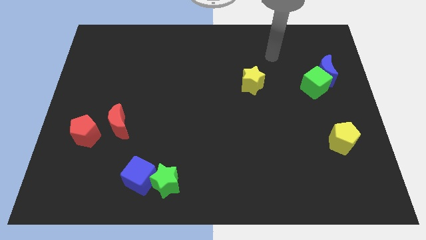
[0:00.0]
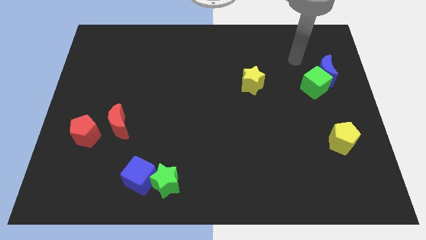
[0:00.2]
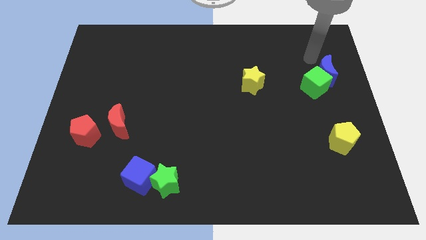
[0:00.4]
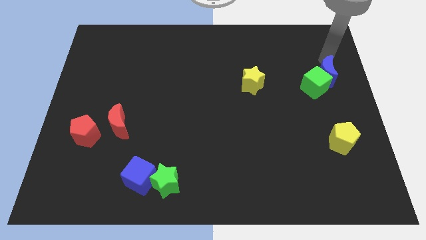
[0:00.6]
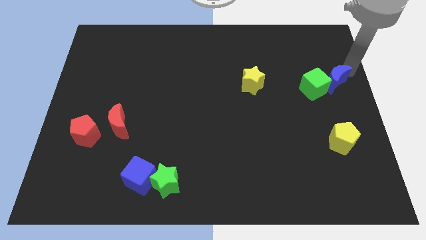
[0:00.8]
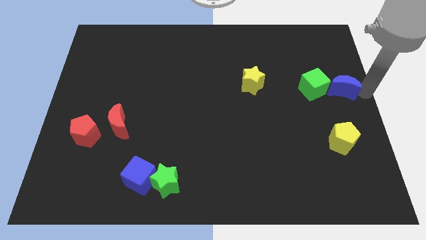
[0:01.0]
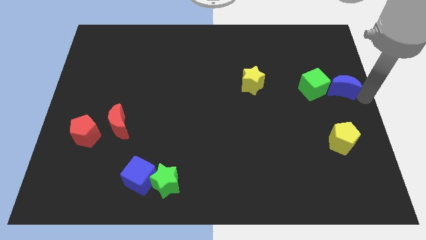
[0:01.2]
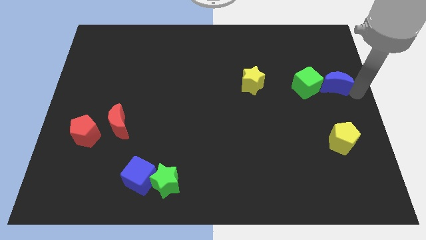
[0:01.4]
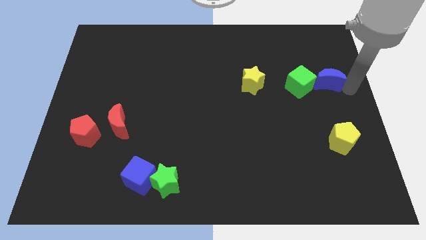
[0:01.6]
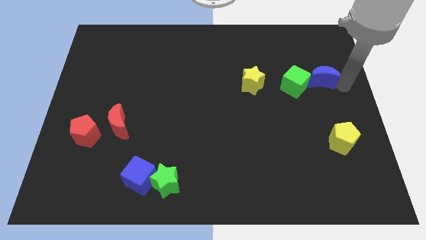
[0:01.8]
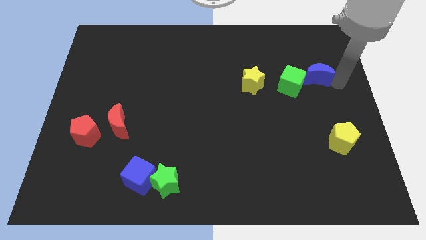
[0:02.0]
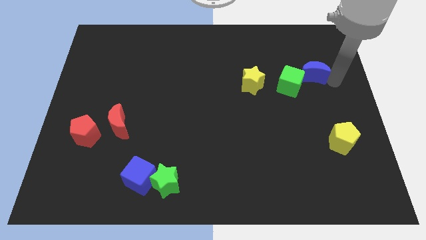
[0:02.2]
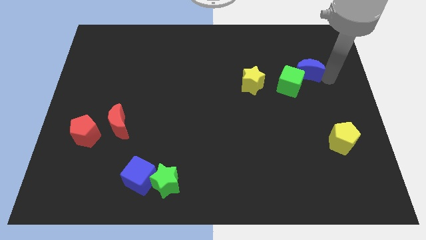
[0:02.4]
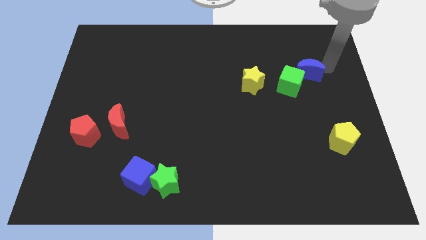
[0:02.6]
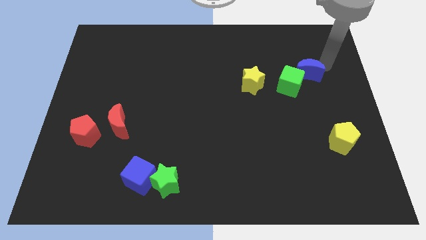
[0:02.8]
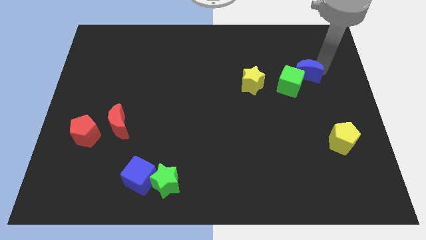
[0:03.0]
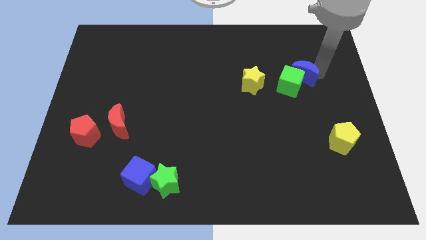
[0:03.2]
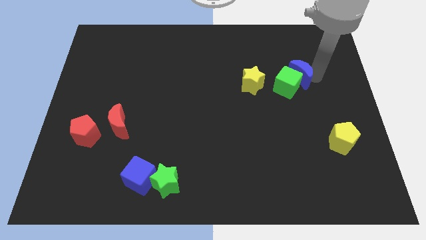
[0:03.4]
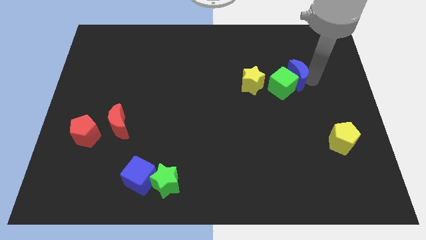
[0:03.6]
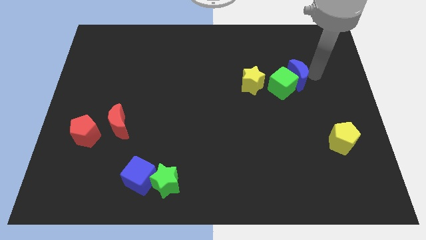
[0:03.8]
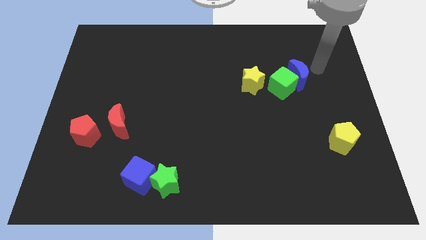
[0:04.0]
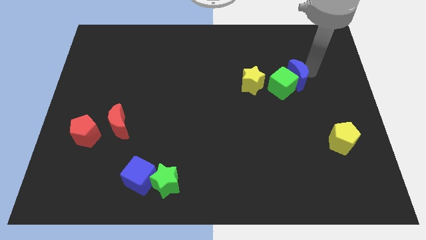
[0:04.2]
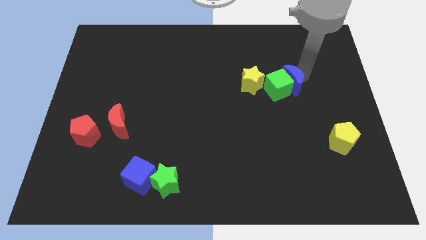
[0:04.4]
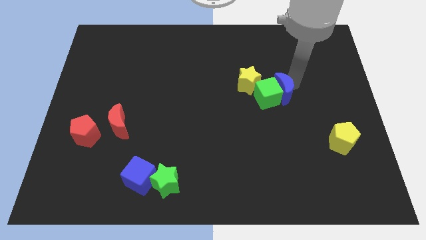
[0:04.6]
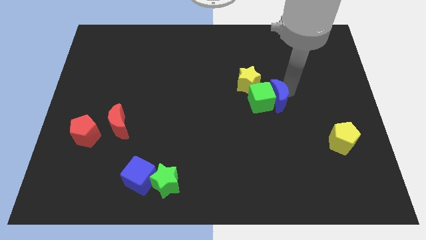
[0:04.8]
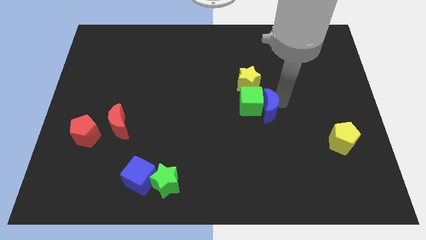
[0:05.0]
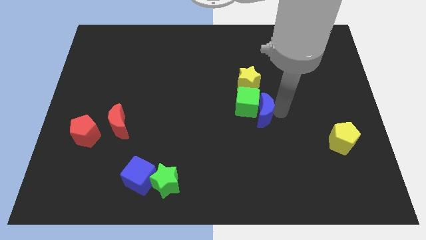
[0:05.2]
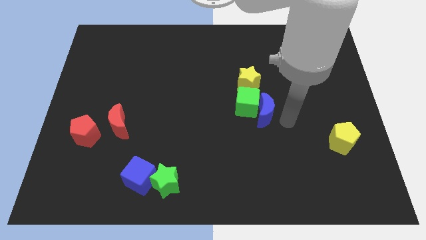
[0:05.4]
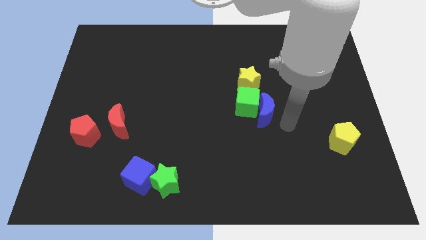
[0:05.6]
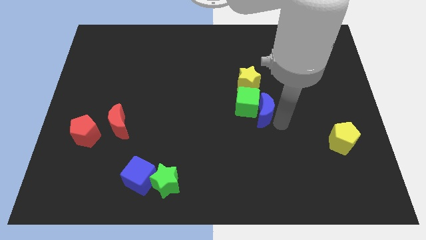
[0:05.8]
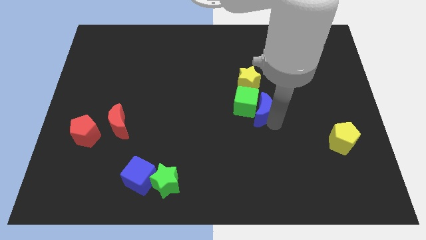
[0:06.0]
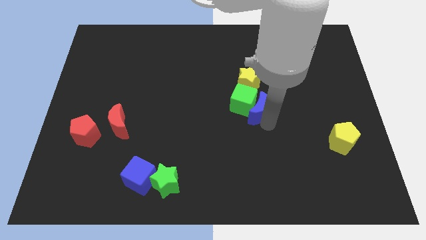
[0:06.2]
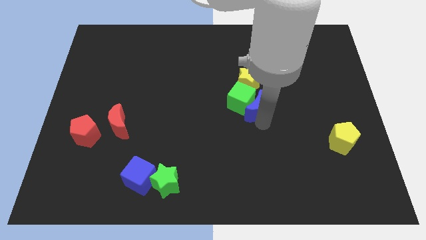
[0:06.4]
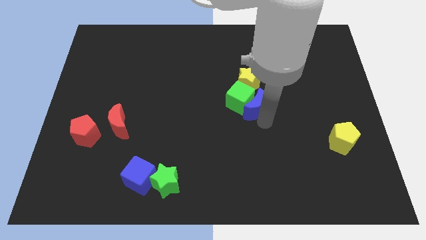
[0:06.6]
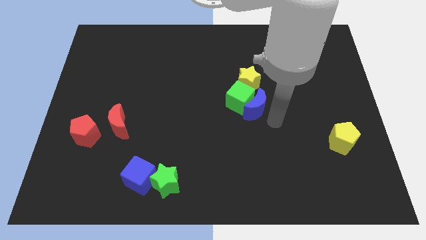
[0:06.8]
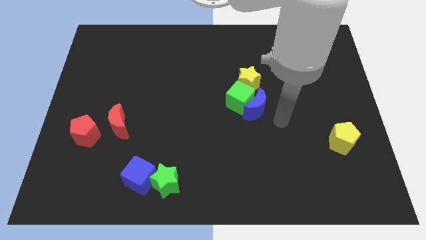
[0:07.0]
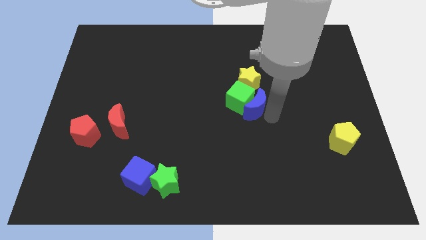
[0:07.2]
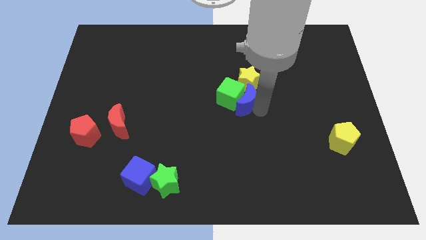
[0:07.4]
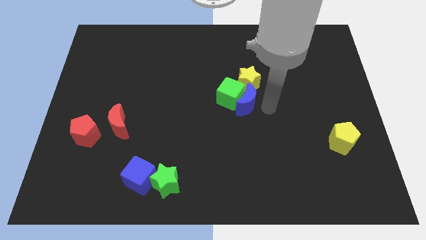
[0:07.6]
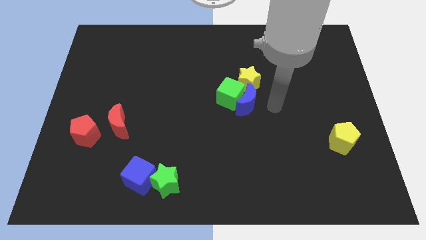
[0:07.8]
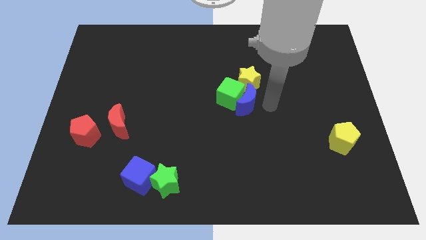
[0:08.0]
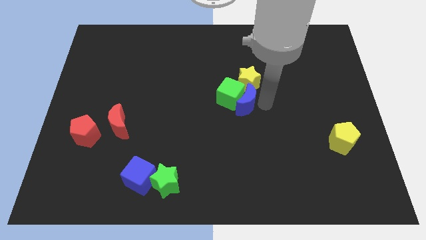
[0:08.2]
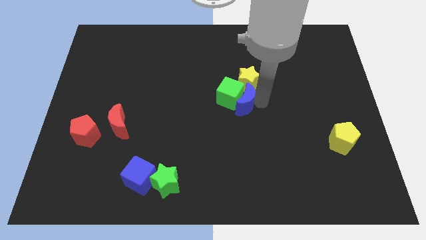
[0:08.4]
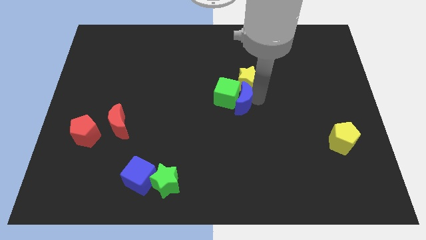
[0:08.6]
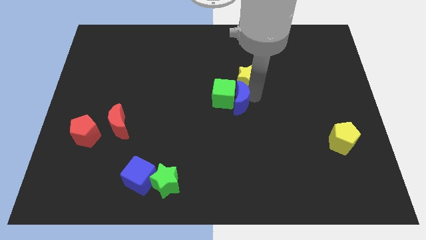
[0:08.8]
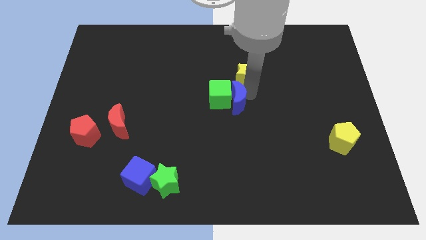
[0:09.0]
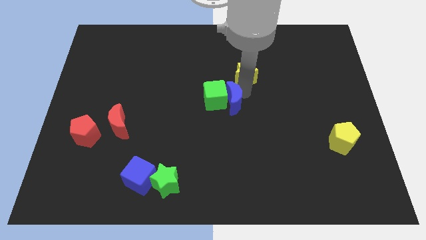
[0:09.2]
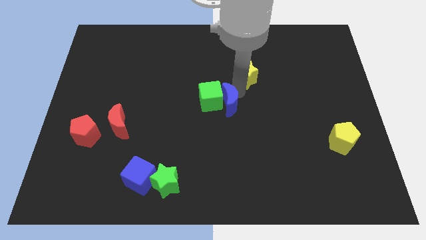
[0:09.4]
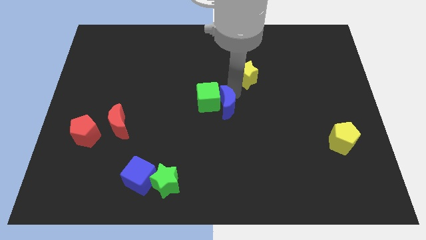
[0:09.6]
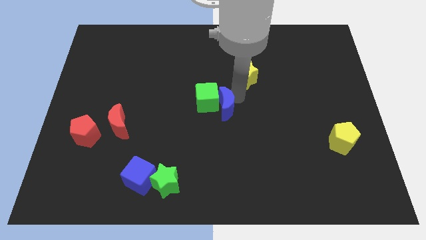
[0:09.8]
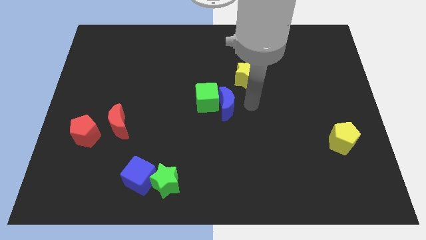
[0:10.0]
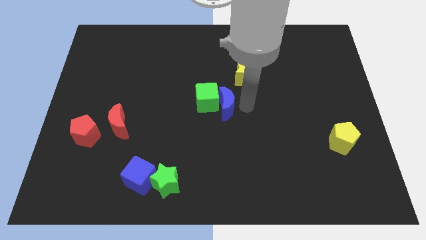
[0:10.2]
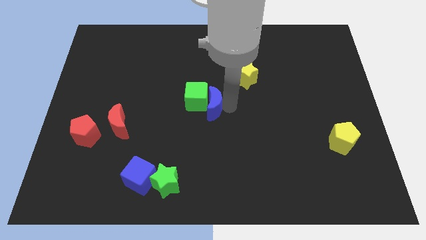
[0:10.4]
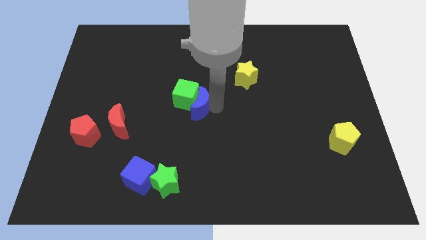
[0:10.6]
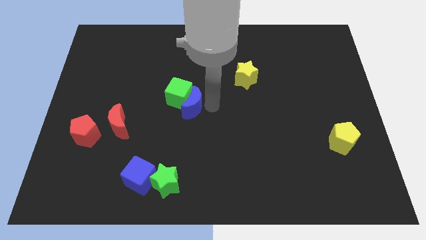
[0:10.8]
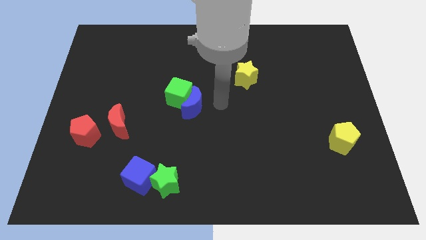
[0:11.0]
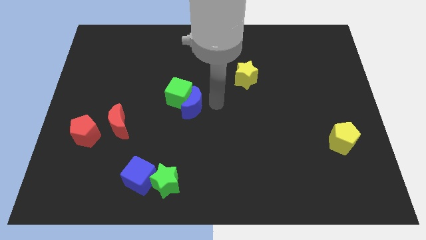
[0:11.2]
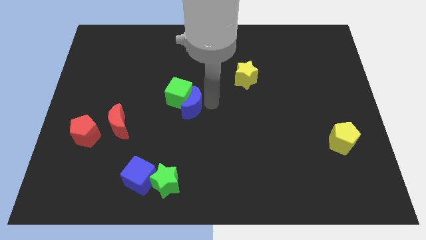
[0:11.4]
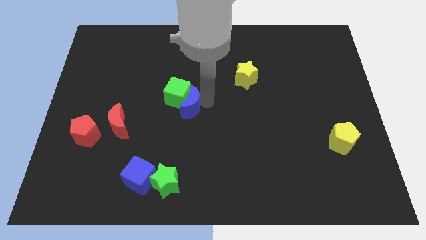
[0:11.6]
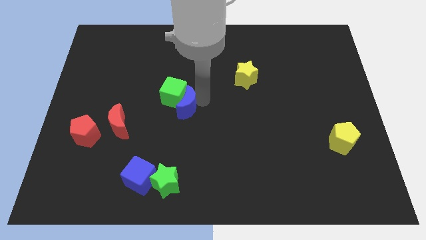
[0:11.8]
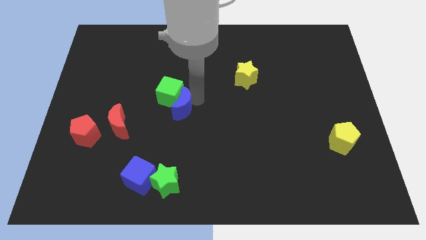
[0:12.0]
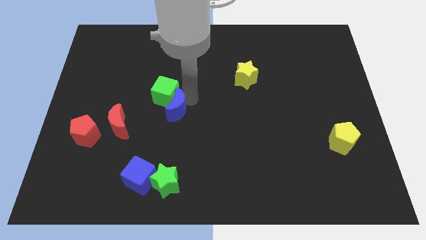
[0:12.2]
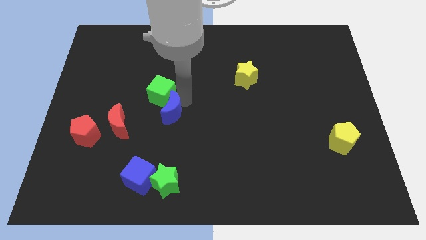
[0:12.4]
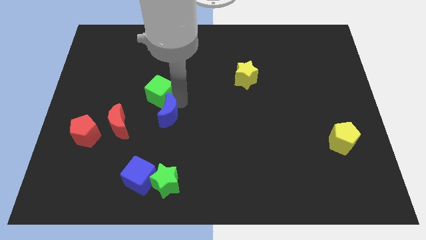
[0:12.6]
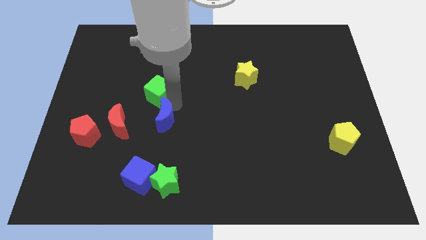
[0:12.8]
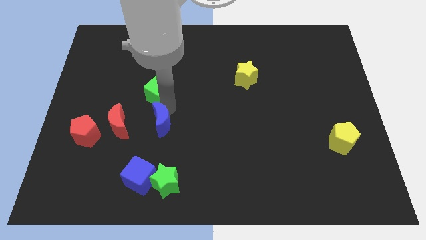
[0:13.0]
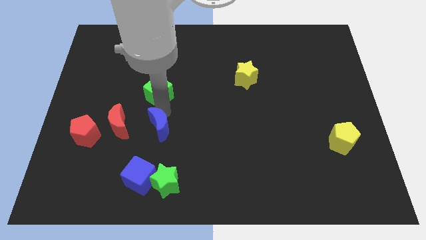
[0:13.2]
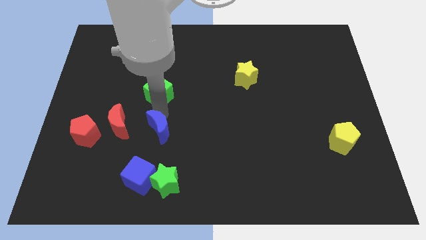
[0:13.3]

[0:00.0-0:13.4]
push the blue moon just right of the red pentagon

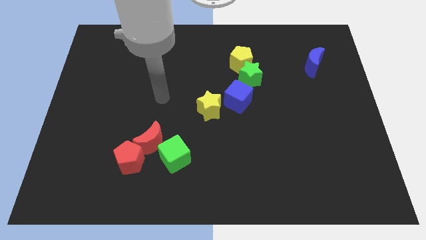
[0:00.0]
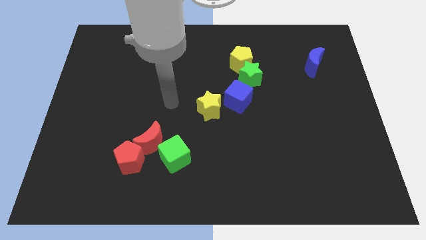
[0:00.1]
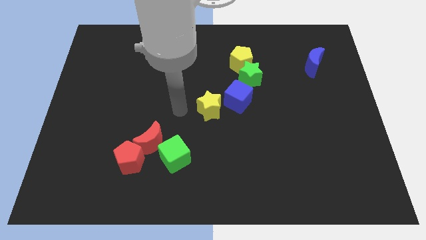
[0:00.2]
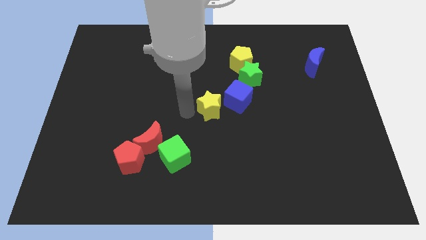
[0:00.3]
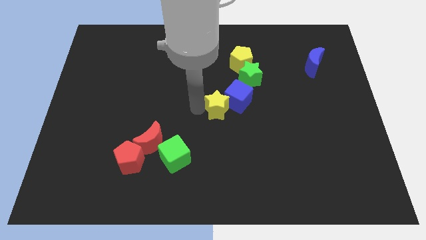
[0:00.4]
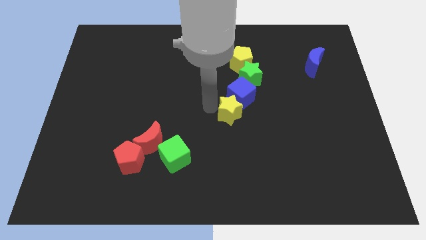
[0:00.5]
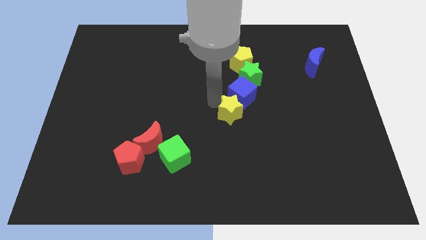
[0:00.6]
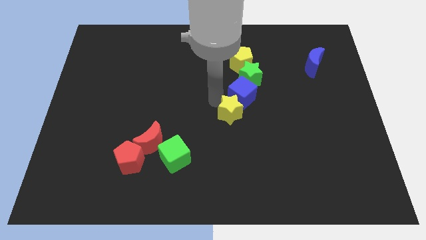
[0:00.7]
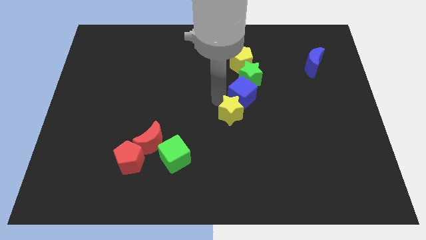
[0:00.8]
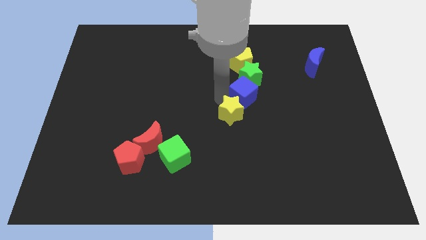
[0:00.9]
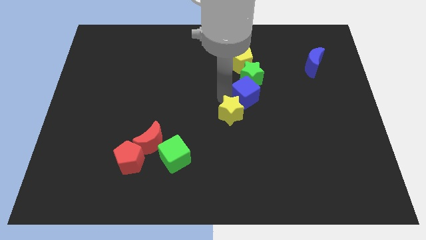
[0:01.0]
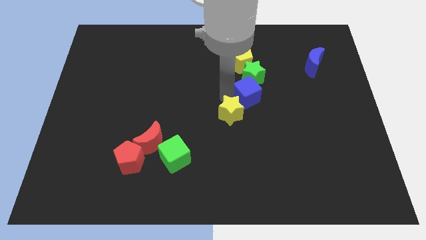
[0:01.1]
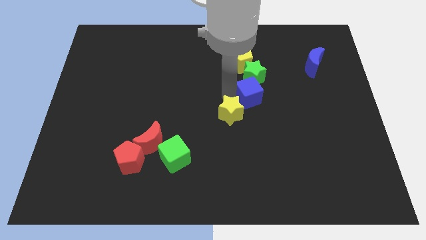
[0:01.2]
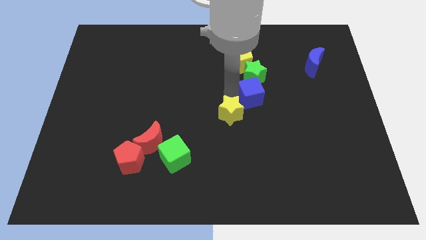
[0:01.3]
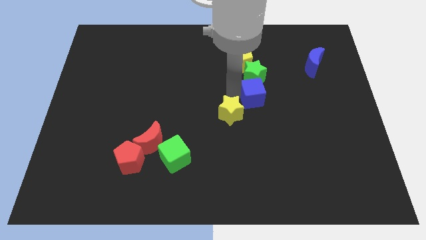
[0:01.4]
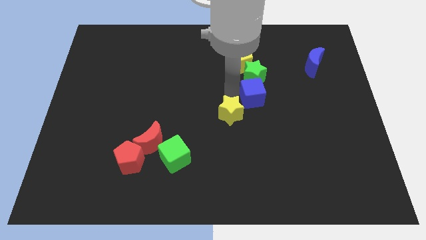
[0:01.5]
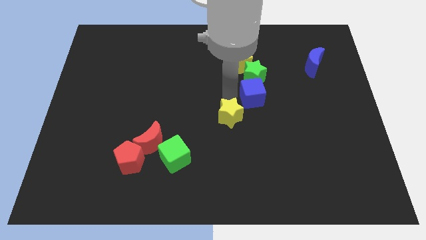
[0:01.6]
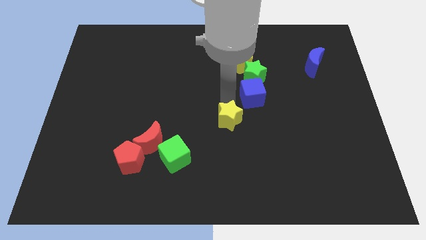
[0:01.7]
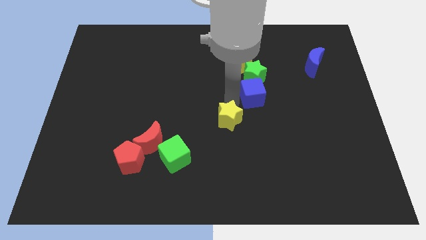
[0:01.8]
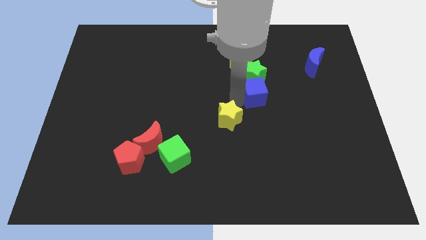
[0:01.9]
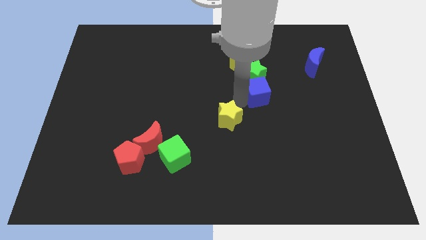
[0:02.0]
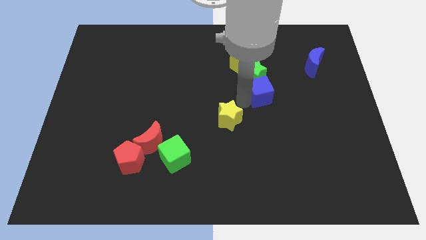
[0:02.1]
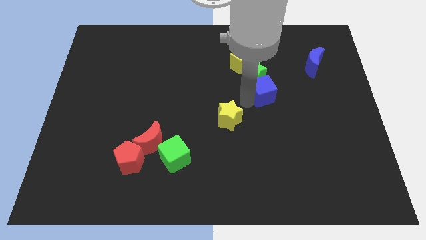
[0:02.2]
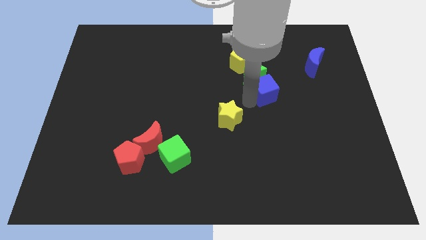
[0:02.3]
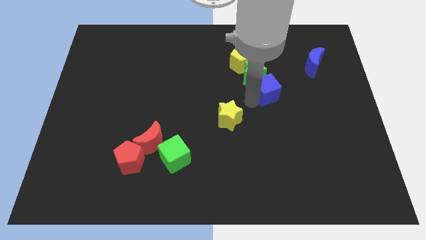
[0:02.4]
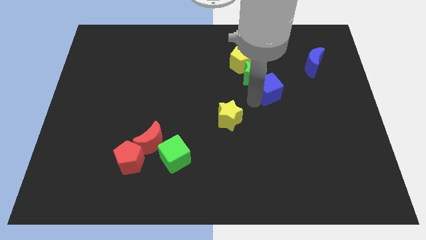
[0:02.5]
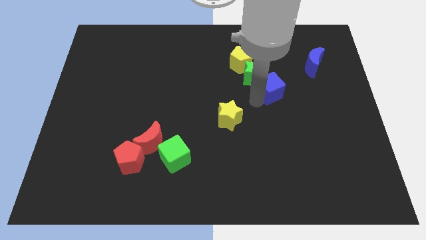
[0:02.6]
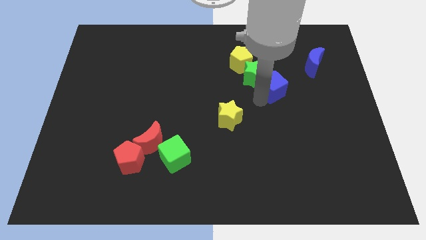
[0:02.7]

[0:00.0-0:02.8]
put the blue cube to the right of the green star
